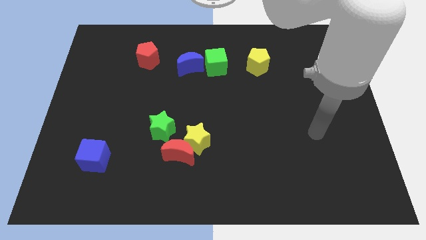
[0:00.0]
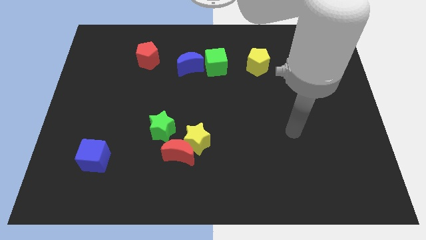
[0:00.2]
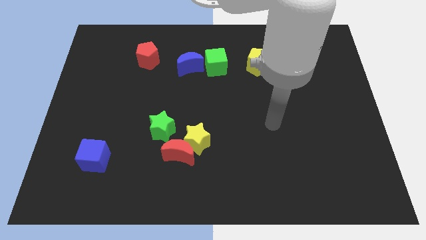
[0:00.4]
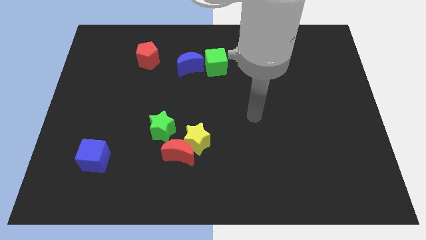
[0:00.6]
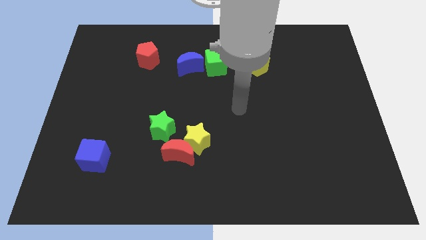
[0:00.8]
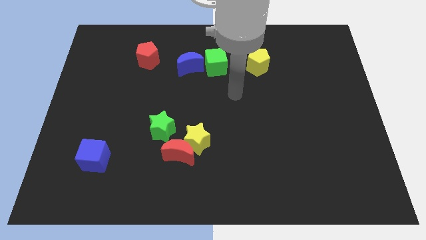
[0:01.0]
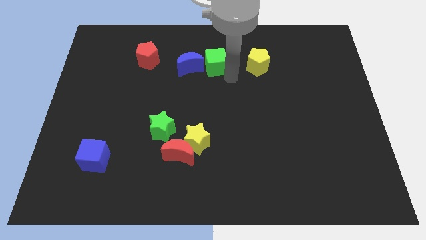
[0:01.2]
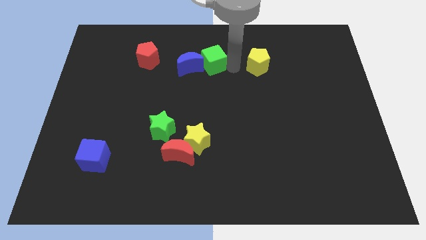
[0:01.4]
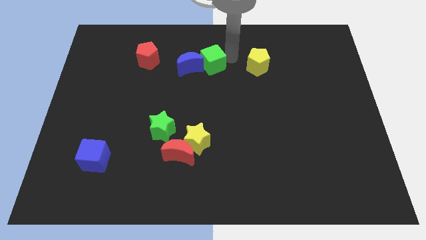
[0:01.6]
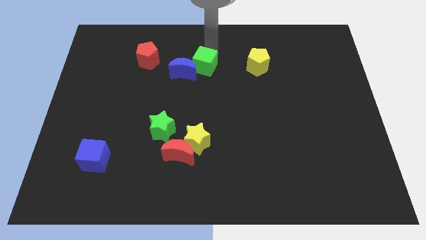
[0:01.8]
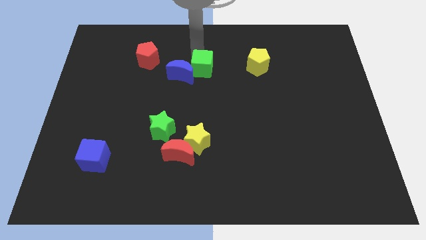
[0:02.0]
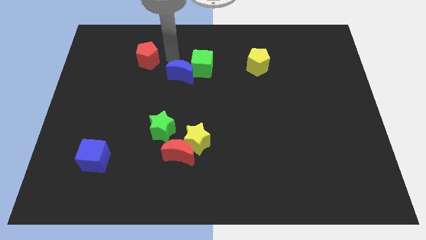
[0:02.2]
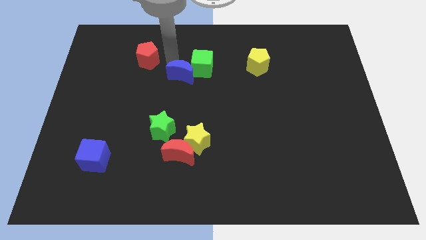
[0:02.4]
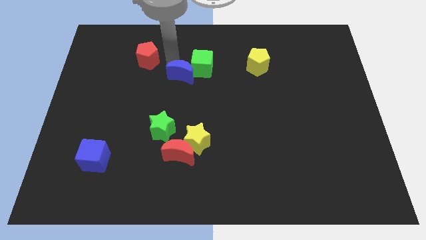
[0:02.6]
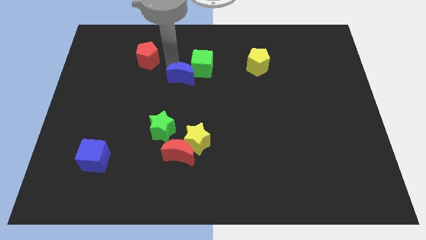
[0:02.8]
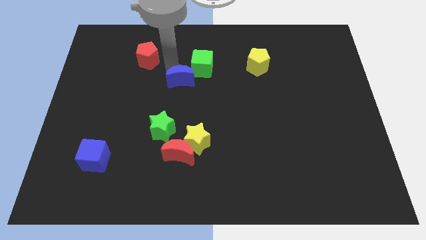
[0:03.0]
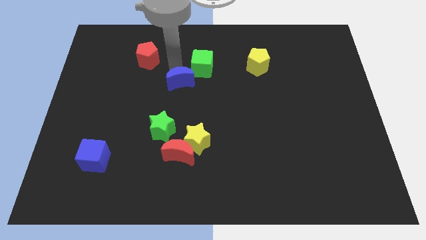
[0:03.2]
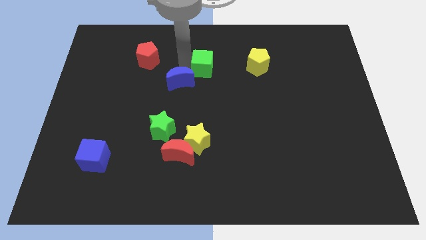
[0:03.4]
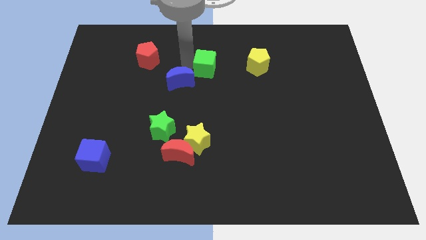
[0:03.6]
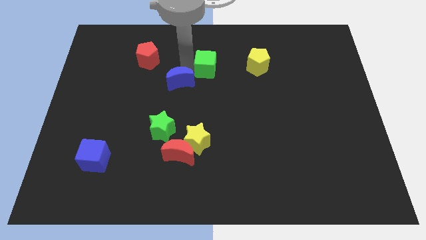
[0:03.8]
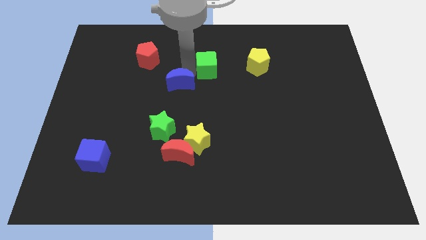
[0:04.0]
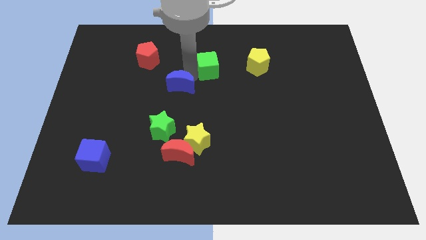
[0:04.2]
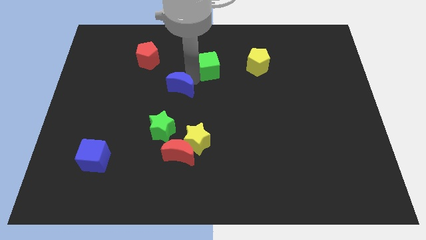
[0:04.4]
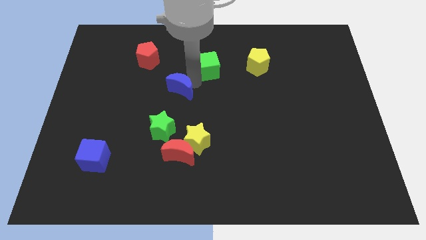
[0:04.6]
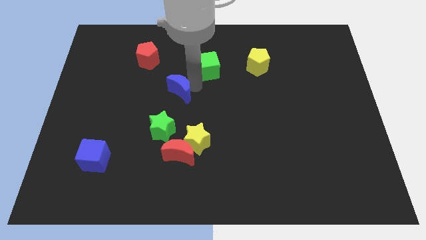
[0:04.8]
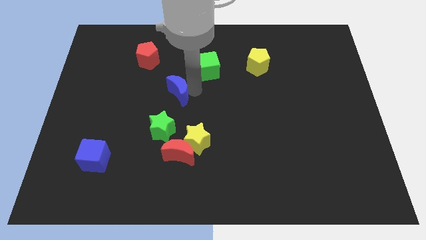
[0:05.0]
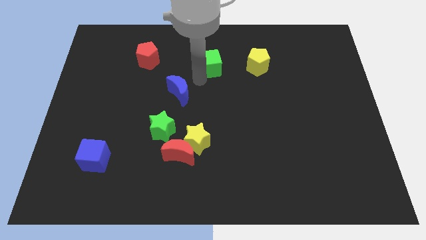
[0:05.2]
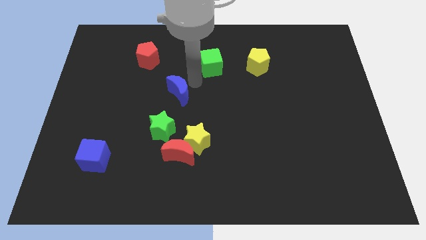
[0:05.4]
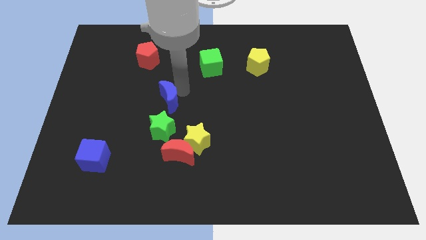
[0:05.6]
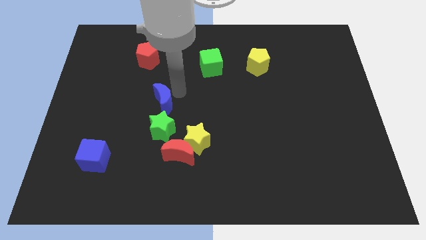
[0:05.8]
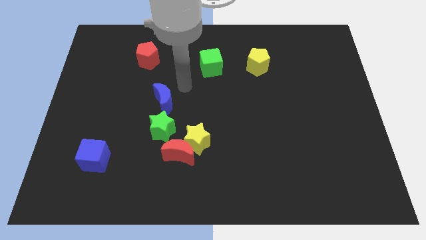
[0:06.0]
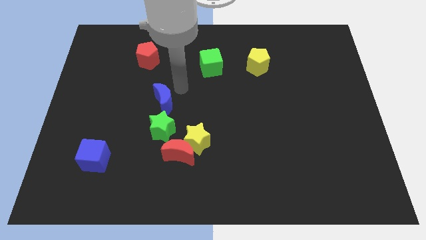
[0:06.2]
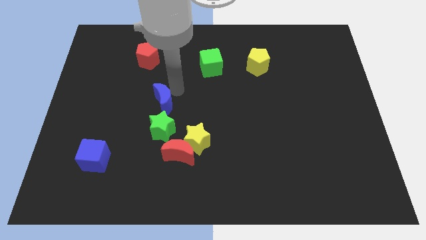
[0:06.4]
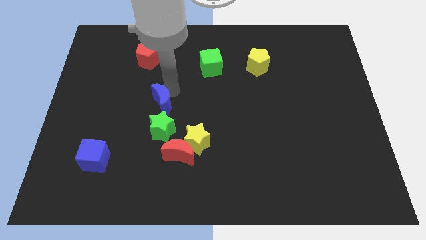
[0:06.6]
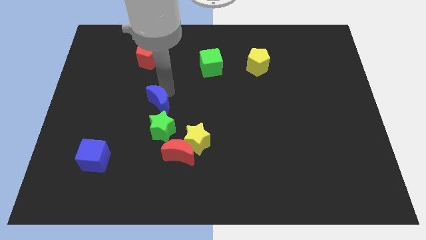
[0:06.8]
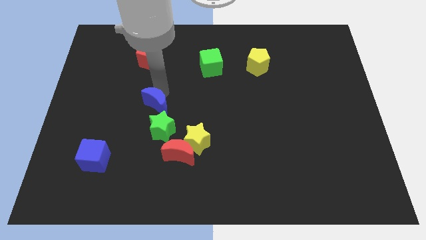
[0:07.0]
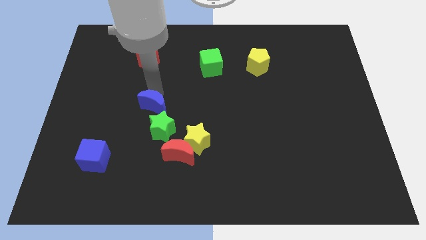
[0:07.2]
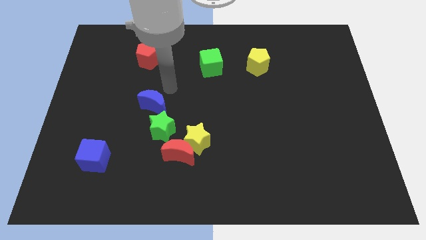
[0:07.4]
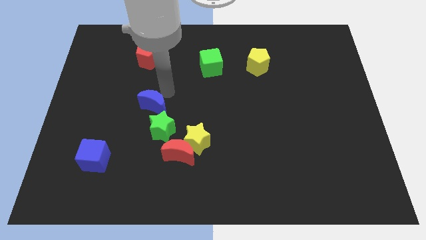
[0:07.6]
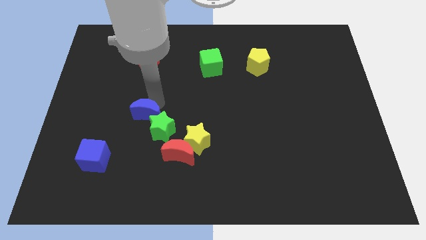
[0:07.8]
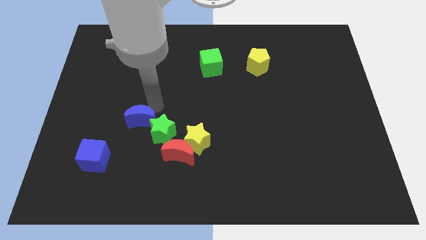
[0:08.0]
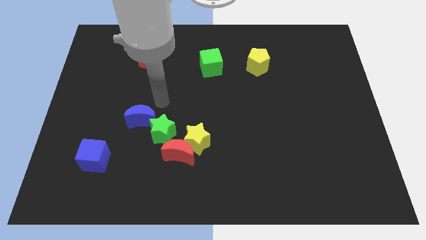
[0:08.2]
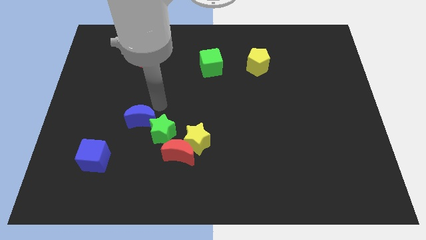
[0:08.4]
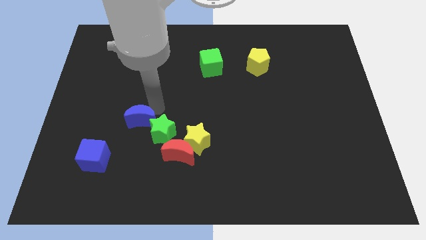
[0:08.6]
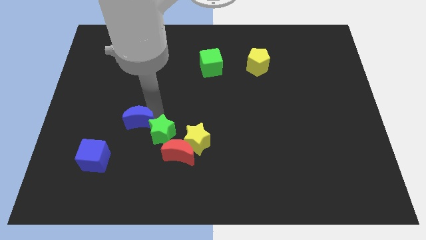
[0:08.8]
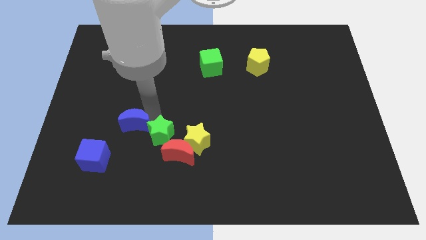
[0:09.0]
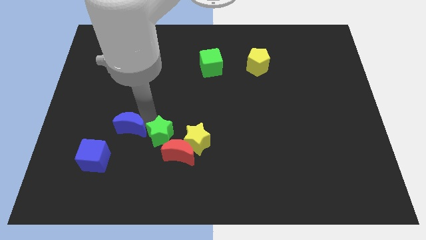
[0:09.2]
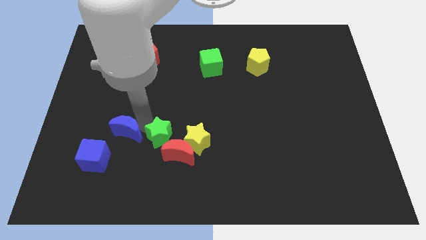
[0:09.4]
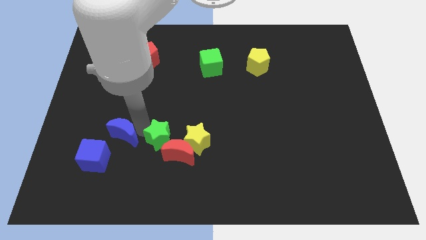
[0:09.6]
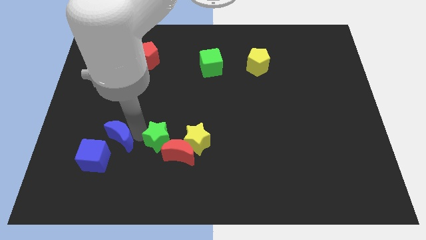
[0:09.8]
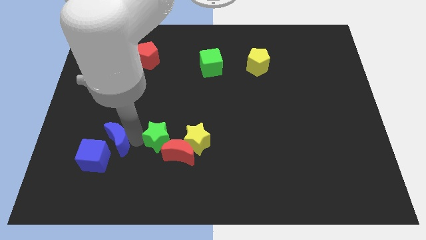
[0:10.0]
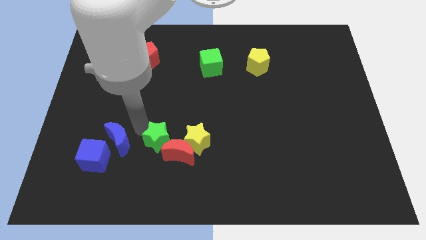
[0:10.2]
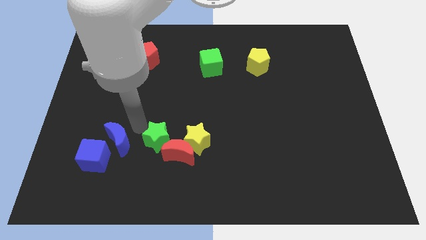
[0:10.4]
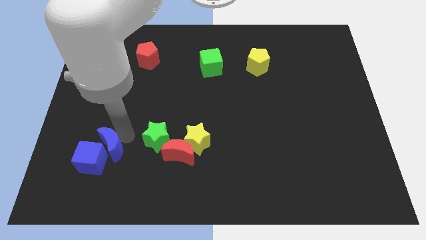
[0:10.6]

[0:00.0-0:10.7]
push the blue moon next to the blue cube

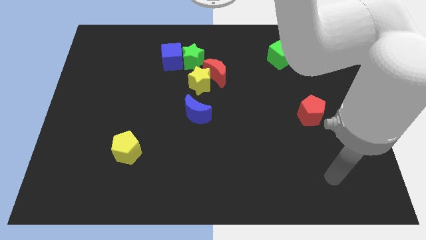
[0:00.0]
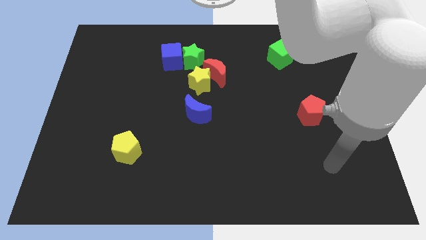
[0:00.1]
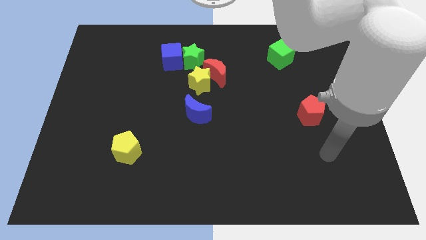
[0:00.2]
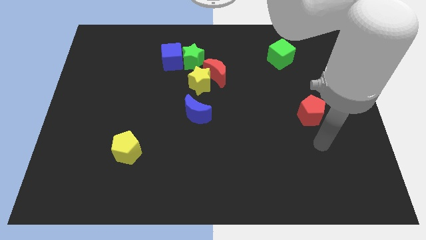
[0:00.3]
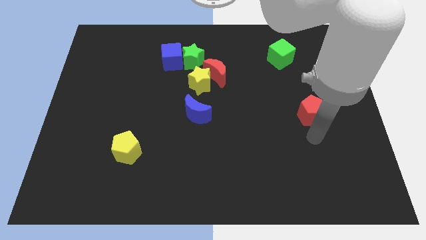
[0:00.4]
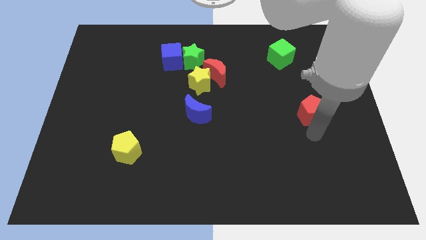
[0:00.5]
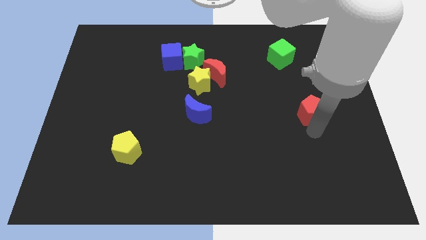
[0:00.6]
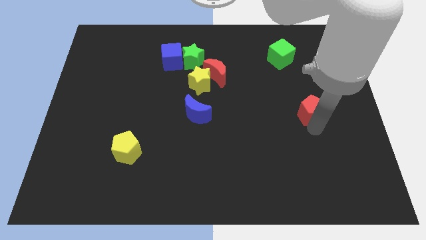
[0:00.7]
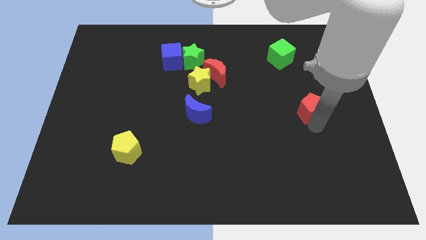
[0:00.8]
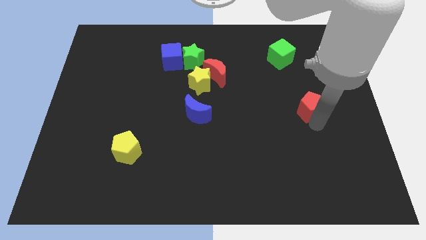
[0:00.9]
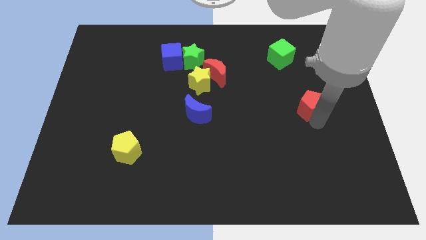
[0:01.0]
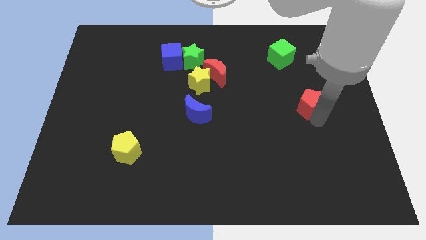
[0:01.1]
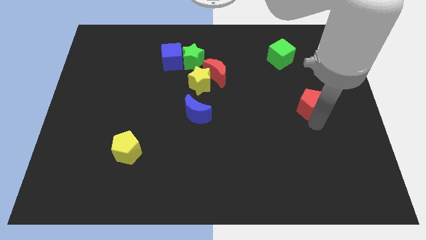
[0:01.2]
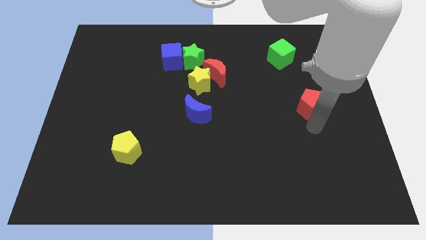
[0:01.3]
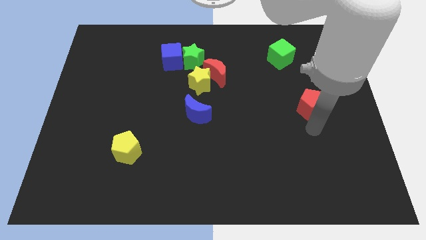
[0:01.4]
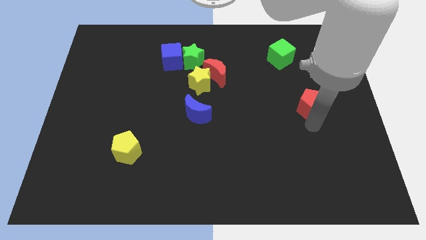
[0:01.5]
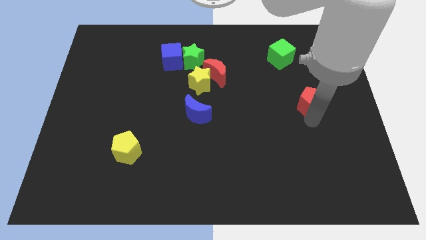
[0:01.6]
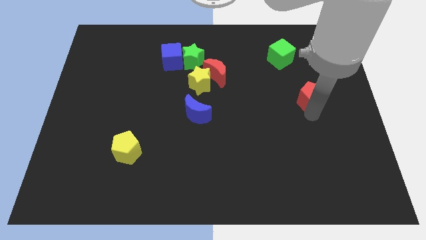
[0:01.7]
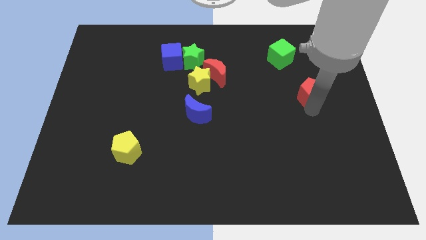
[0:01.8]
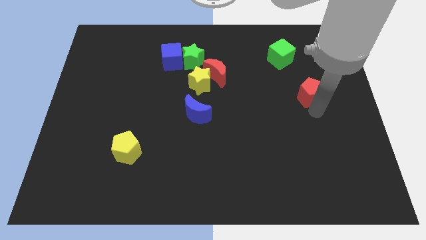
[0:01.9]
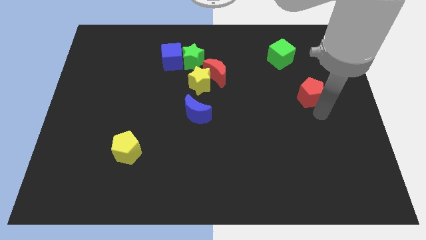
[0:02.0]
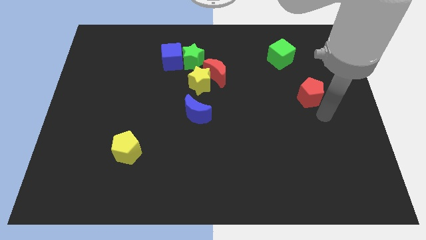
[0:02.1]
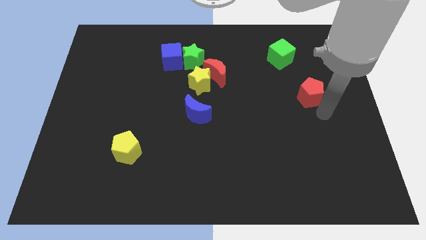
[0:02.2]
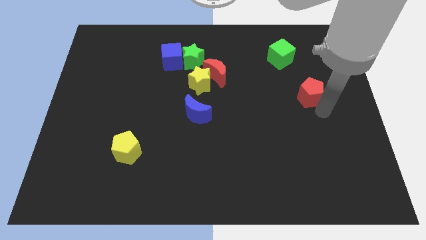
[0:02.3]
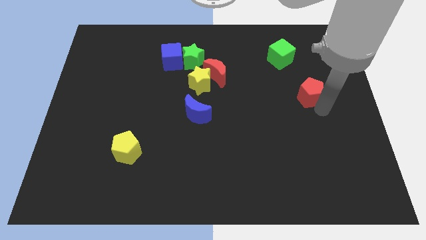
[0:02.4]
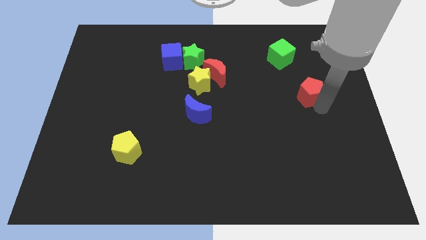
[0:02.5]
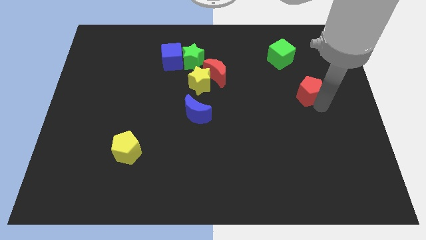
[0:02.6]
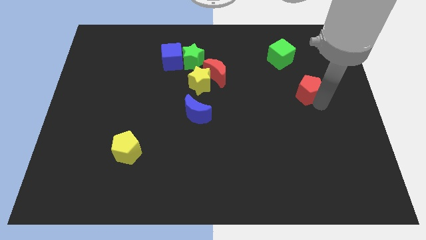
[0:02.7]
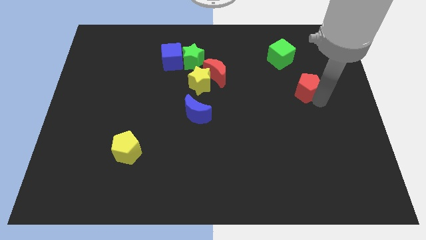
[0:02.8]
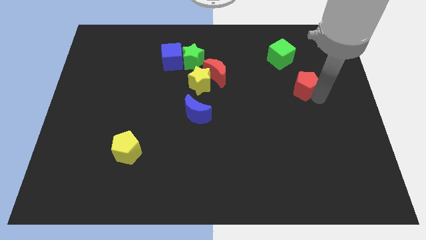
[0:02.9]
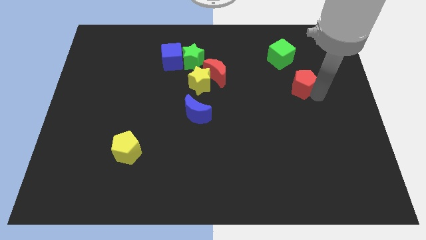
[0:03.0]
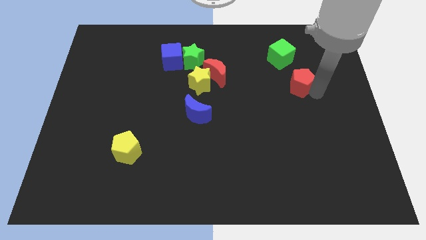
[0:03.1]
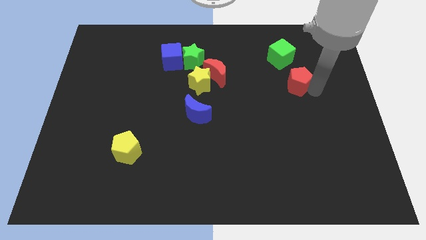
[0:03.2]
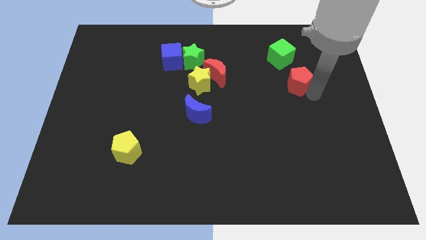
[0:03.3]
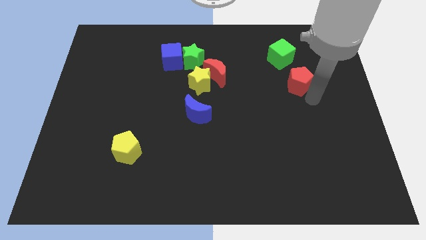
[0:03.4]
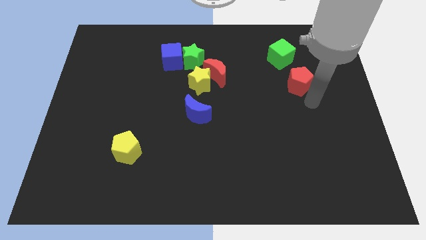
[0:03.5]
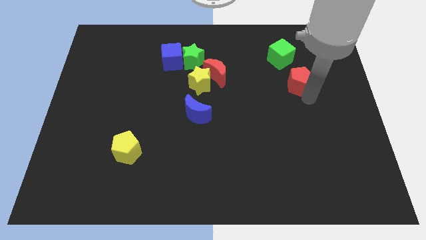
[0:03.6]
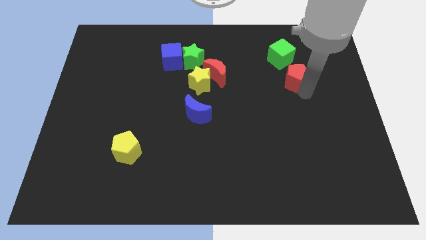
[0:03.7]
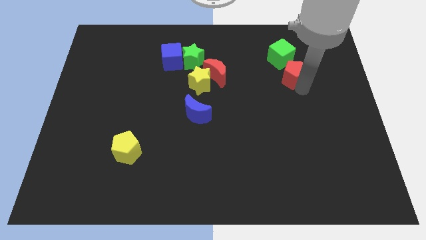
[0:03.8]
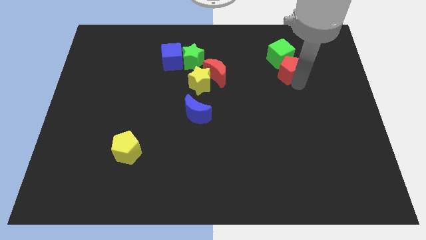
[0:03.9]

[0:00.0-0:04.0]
put the red pentagon towards the green cube
